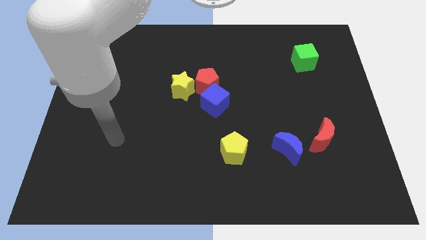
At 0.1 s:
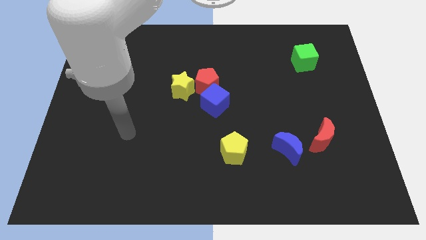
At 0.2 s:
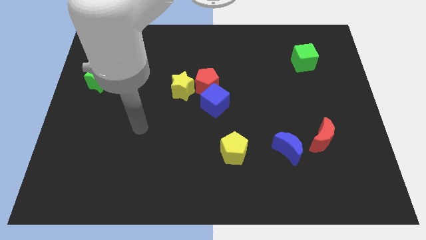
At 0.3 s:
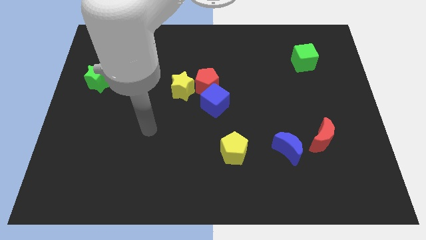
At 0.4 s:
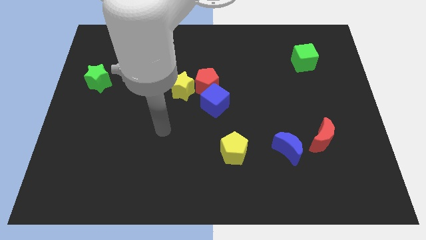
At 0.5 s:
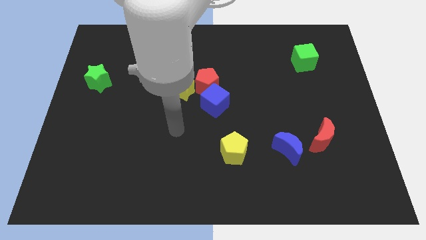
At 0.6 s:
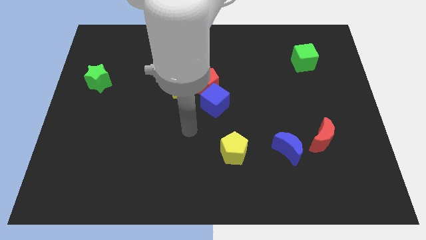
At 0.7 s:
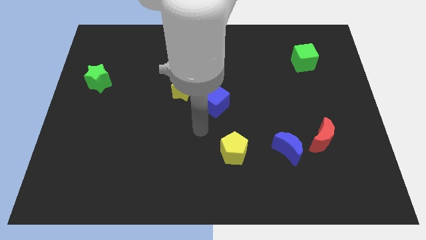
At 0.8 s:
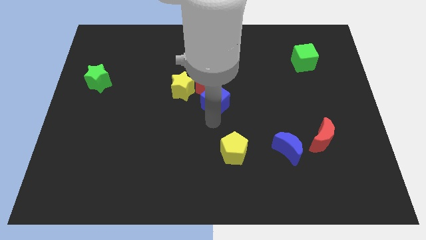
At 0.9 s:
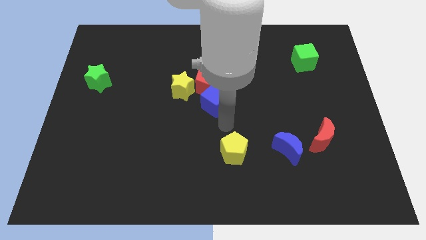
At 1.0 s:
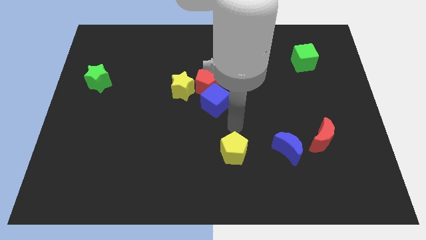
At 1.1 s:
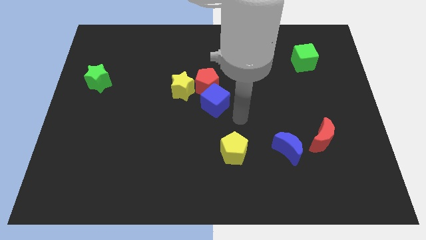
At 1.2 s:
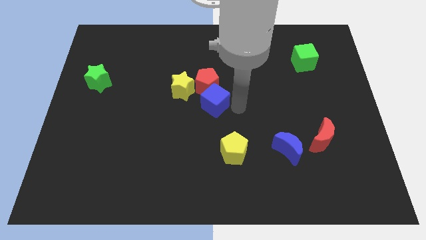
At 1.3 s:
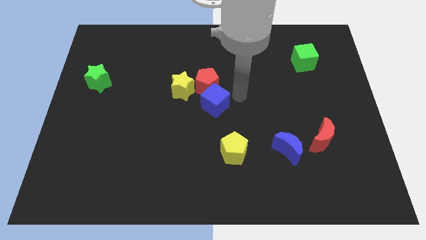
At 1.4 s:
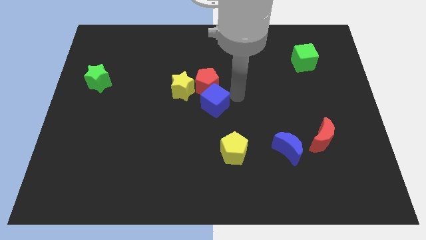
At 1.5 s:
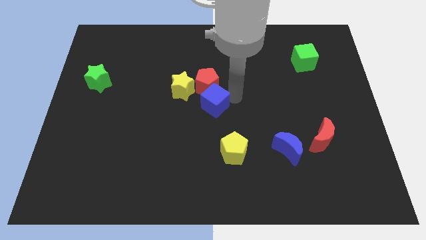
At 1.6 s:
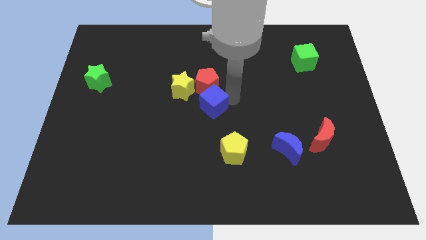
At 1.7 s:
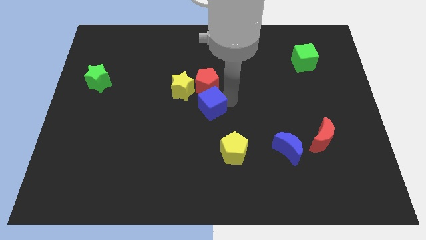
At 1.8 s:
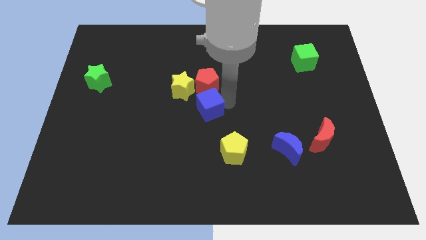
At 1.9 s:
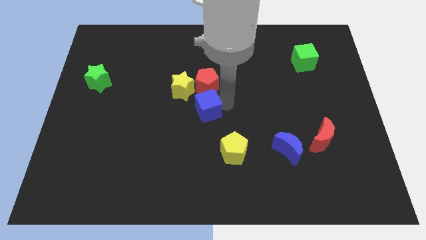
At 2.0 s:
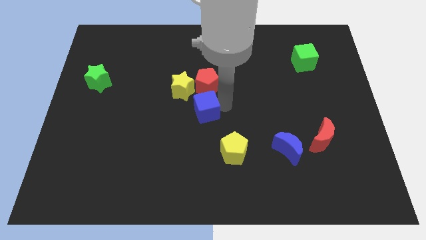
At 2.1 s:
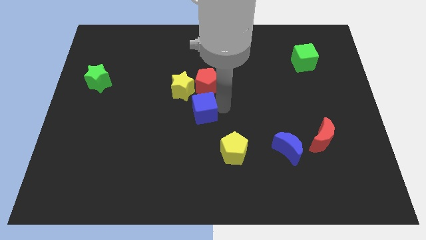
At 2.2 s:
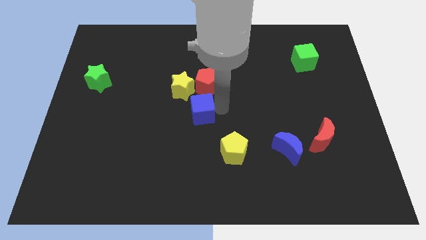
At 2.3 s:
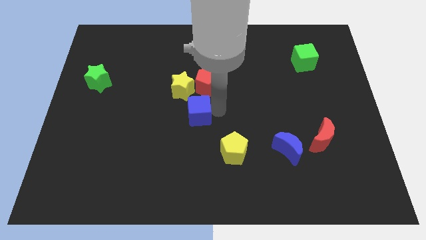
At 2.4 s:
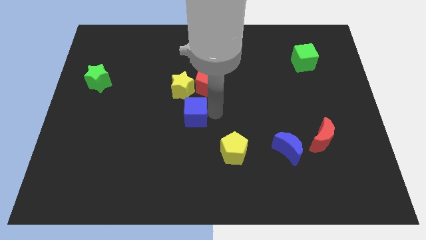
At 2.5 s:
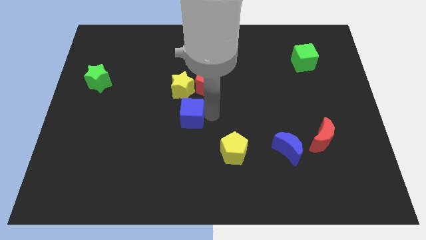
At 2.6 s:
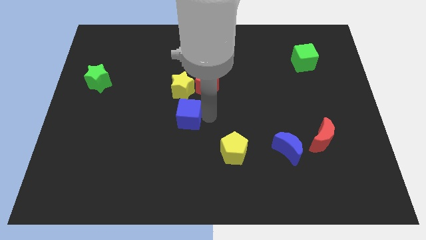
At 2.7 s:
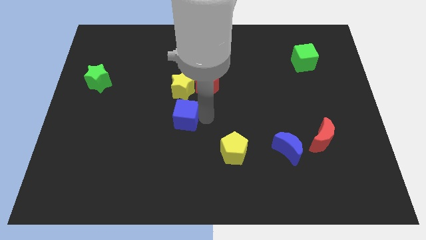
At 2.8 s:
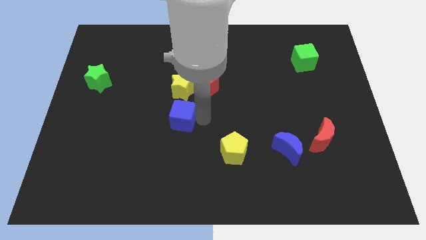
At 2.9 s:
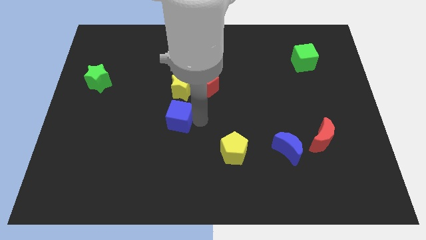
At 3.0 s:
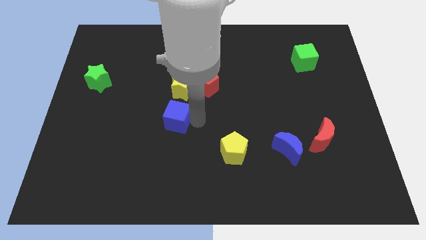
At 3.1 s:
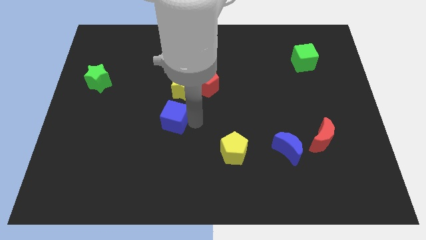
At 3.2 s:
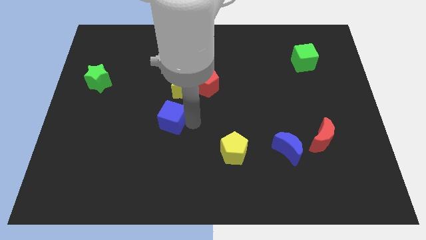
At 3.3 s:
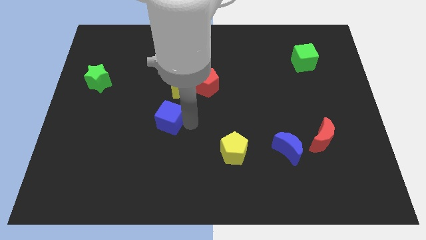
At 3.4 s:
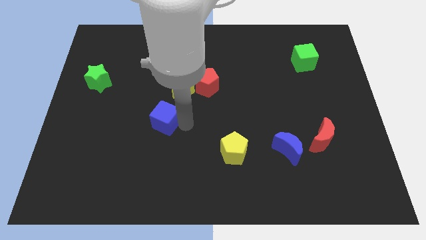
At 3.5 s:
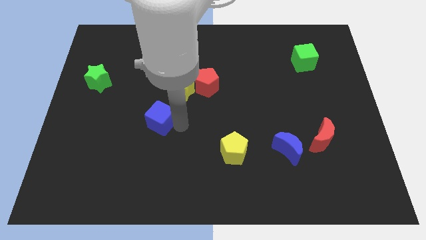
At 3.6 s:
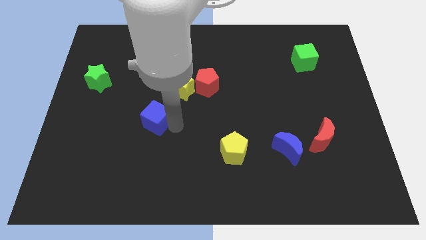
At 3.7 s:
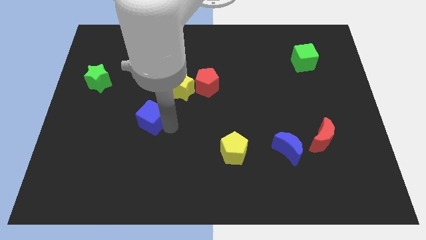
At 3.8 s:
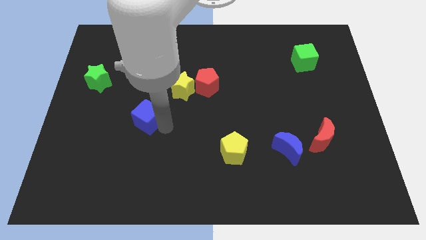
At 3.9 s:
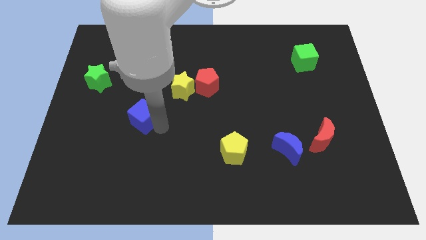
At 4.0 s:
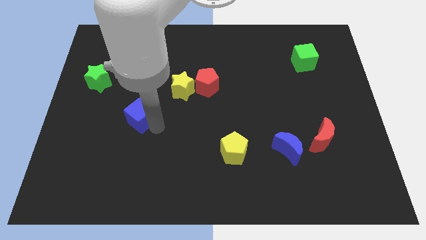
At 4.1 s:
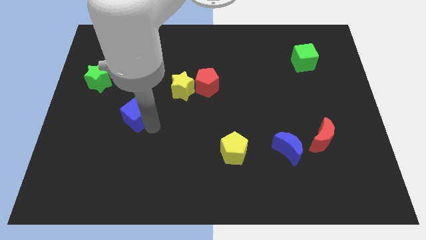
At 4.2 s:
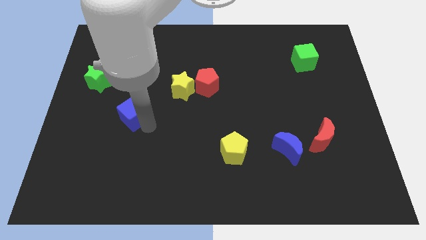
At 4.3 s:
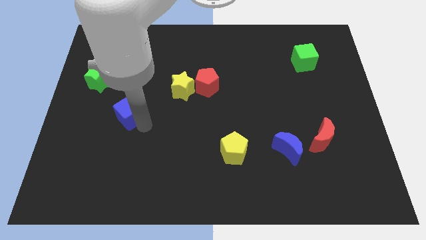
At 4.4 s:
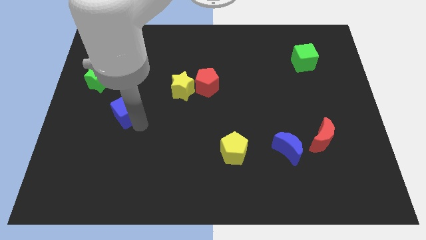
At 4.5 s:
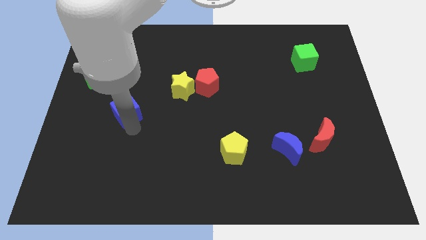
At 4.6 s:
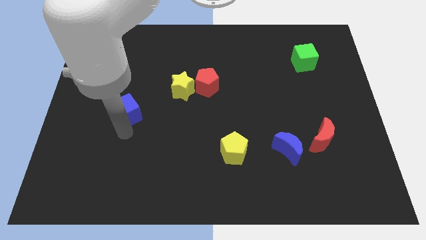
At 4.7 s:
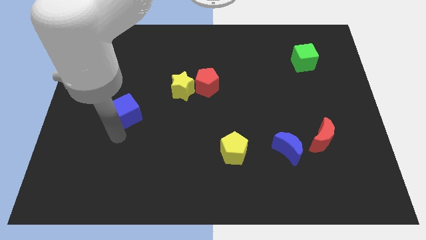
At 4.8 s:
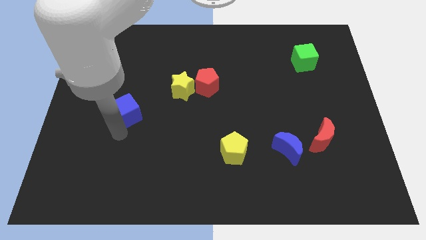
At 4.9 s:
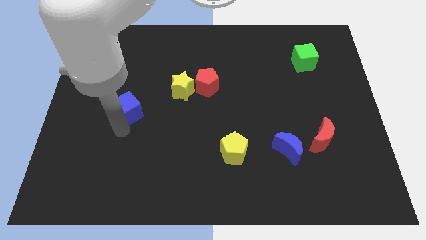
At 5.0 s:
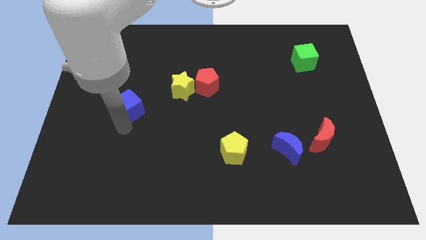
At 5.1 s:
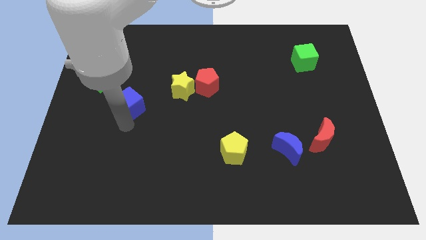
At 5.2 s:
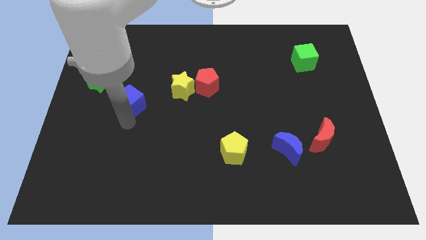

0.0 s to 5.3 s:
push the blue cube to the left side of the yellow star

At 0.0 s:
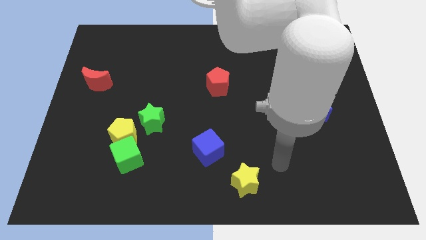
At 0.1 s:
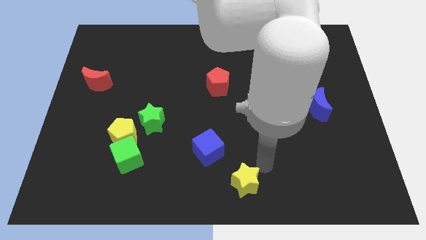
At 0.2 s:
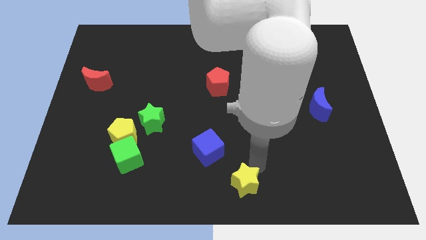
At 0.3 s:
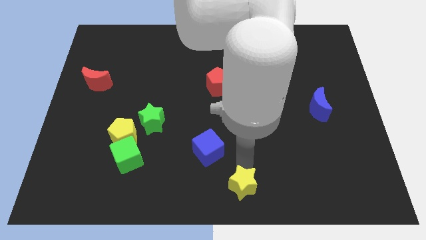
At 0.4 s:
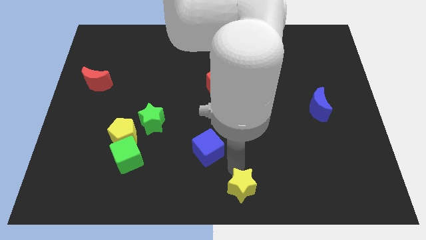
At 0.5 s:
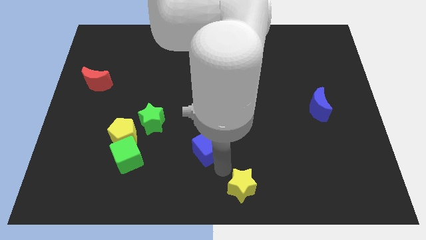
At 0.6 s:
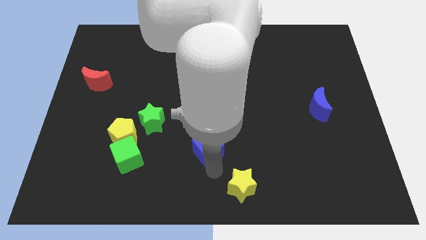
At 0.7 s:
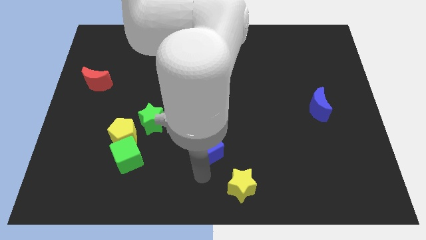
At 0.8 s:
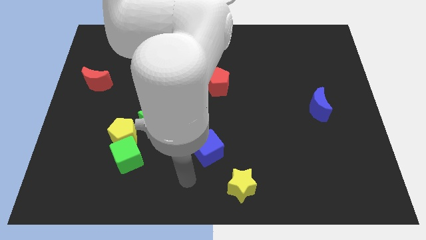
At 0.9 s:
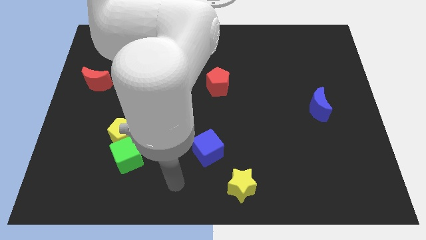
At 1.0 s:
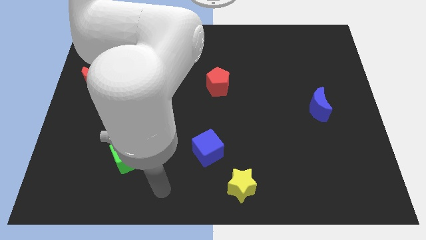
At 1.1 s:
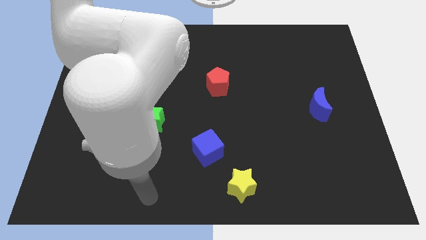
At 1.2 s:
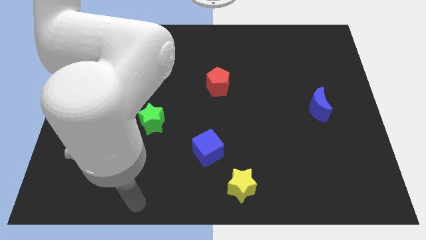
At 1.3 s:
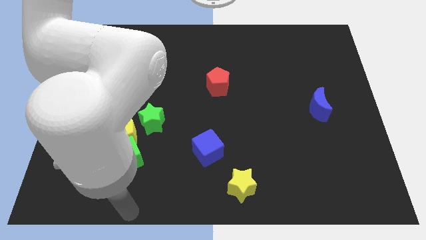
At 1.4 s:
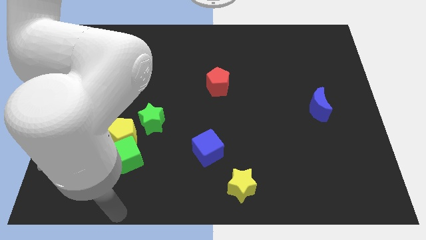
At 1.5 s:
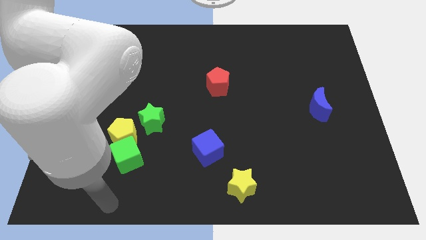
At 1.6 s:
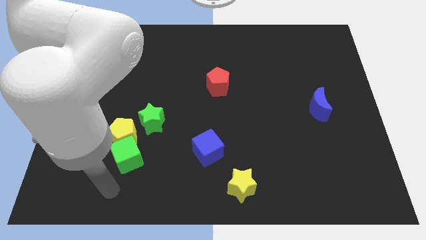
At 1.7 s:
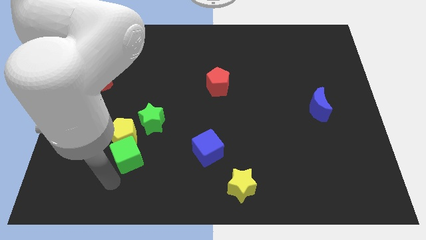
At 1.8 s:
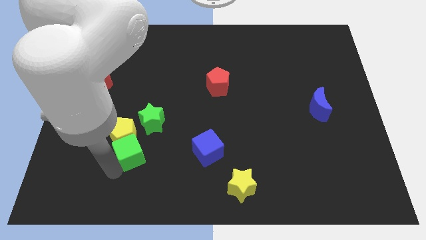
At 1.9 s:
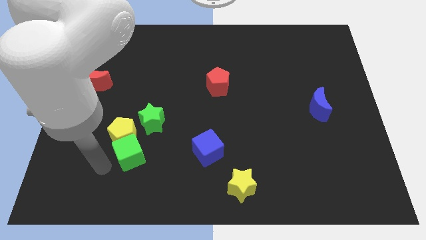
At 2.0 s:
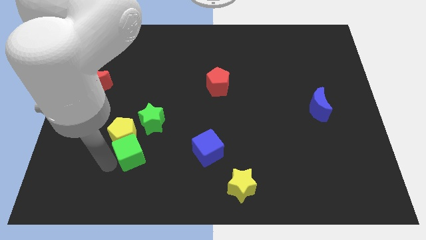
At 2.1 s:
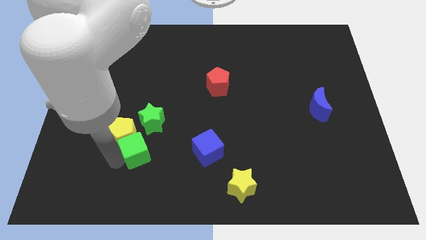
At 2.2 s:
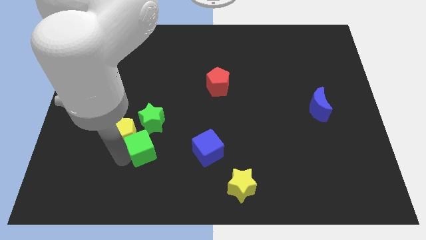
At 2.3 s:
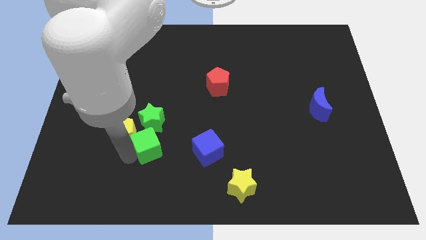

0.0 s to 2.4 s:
push the green cube to the bottom right side of the green star
